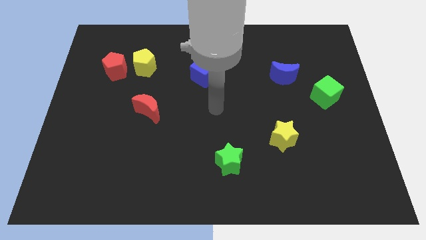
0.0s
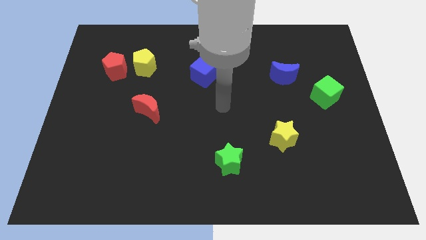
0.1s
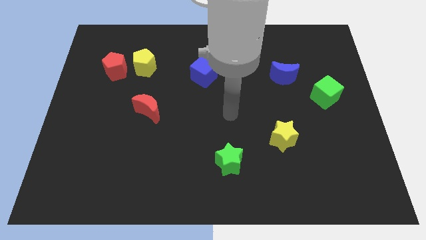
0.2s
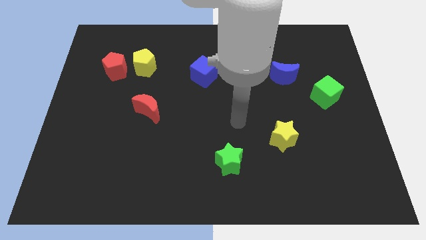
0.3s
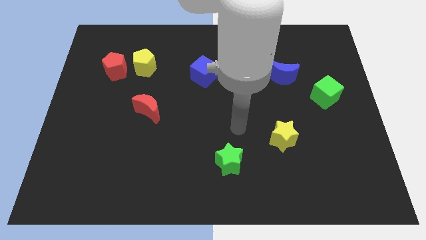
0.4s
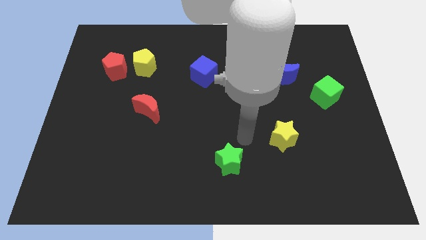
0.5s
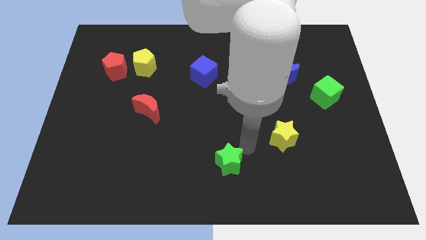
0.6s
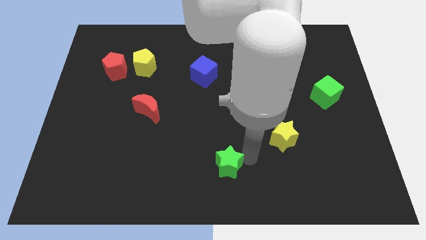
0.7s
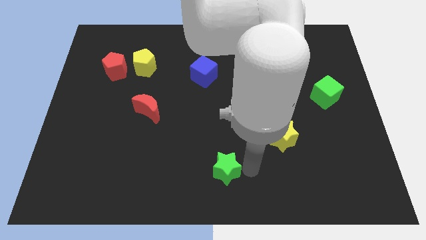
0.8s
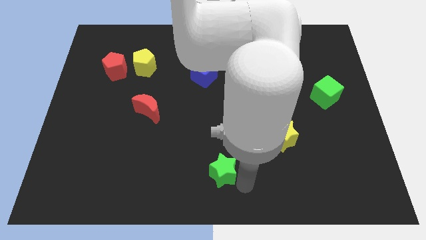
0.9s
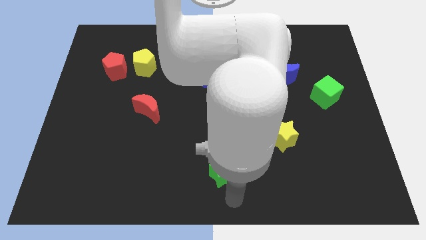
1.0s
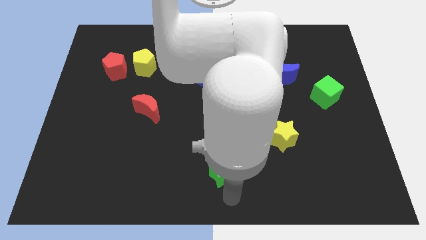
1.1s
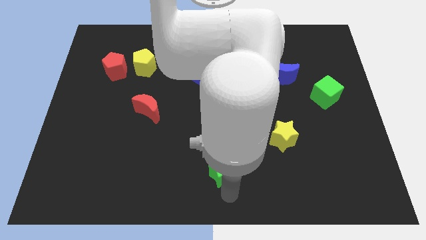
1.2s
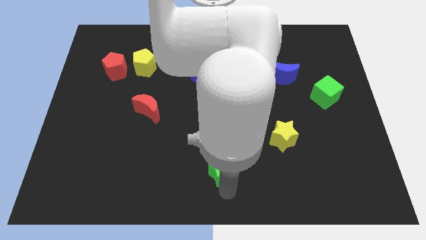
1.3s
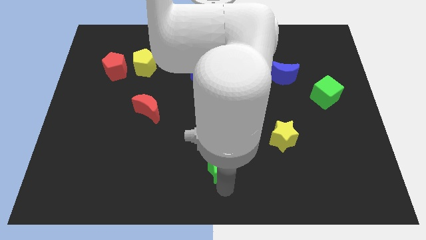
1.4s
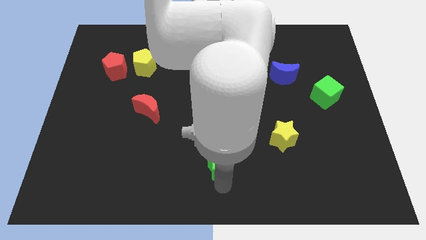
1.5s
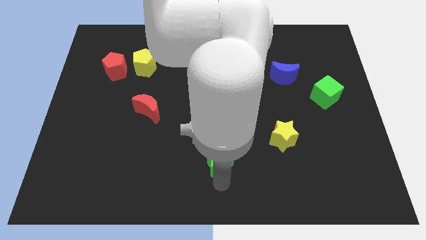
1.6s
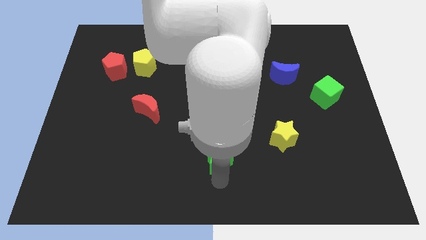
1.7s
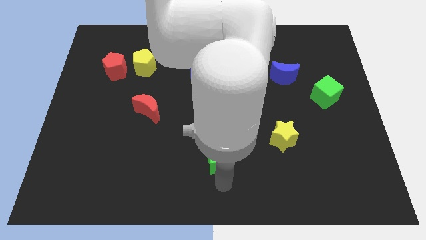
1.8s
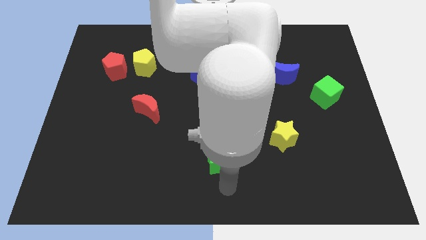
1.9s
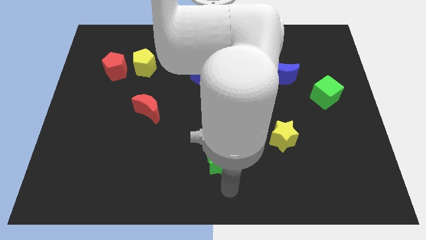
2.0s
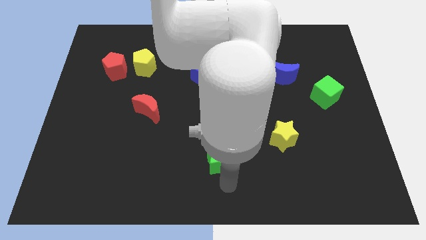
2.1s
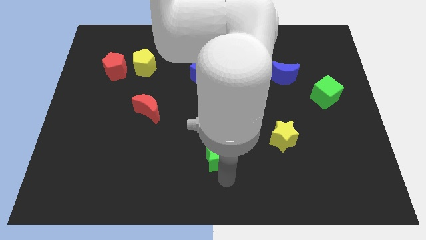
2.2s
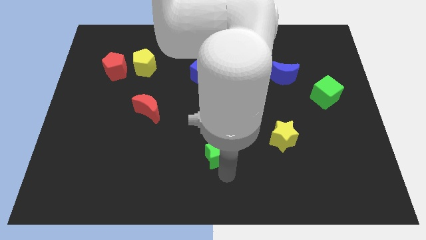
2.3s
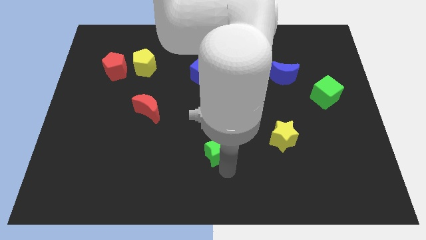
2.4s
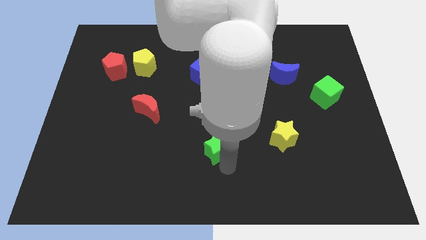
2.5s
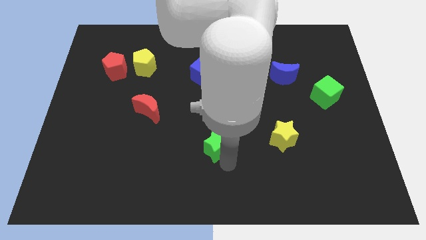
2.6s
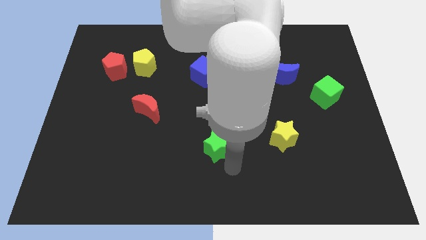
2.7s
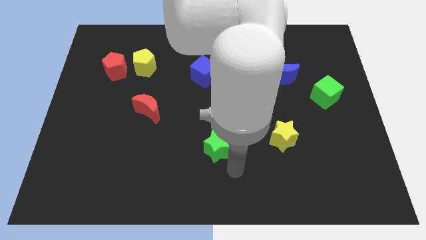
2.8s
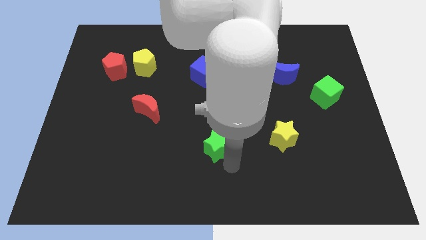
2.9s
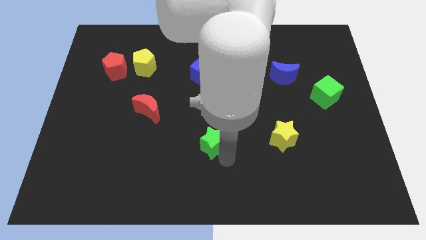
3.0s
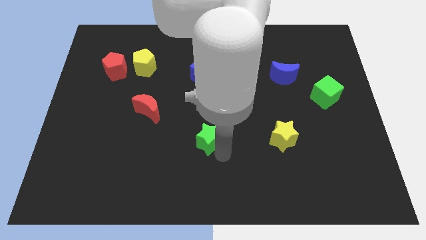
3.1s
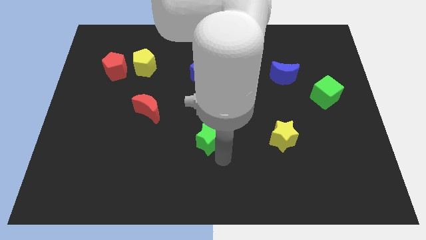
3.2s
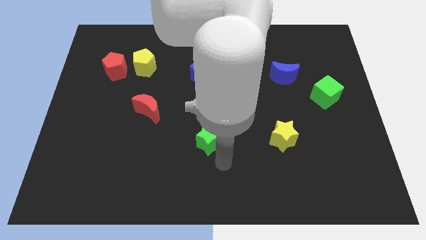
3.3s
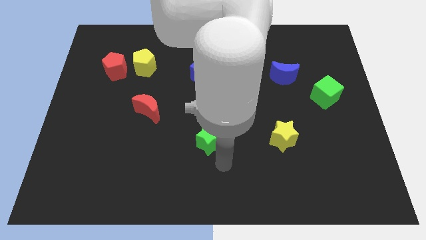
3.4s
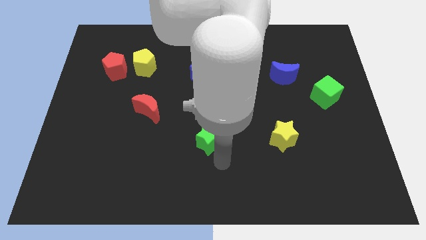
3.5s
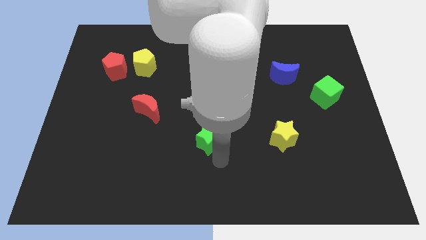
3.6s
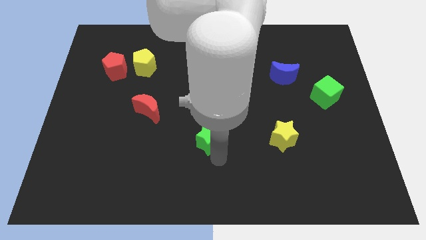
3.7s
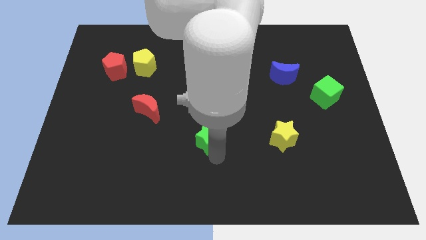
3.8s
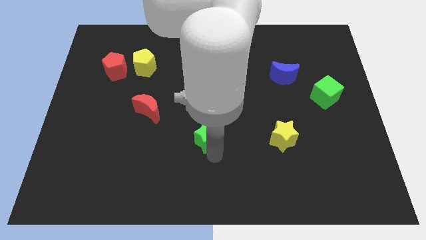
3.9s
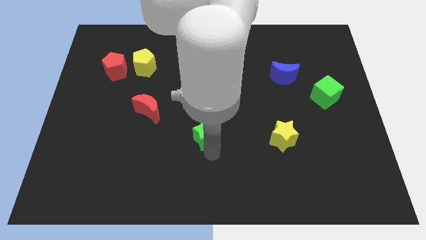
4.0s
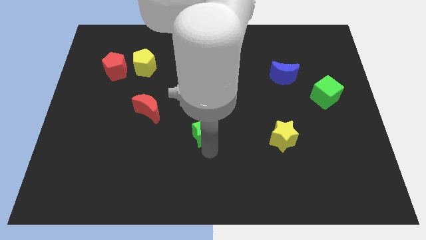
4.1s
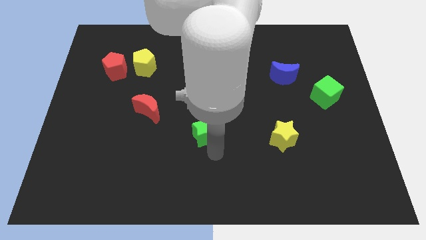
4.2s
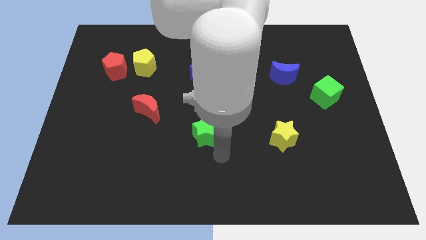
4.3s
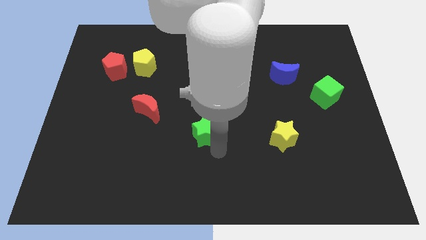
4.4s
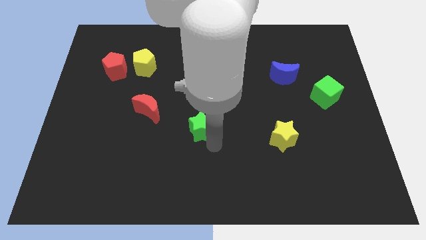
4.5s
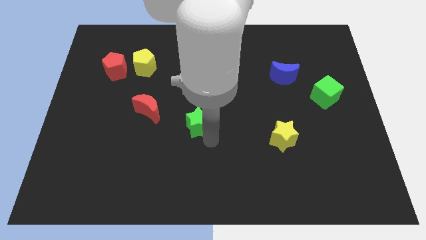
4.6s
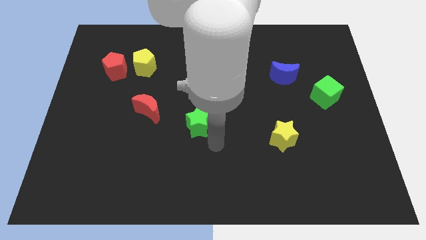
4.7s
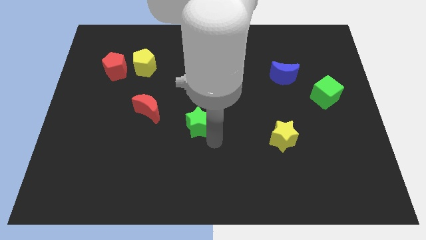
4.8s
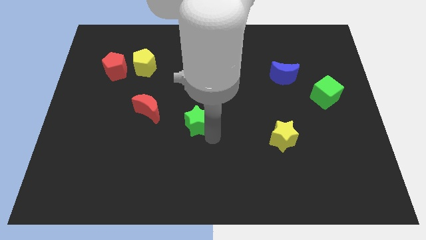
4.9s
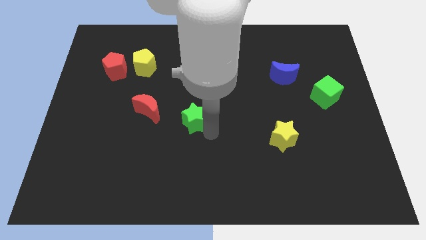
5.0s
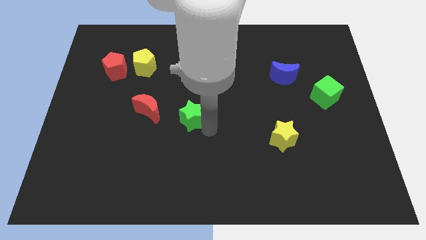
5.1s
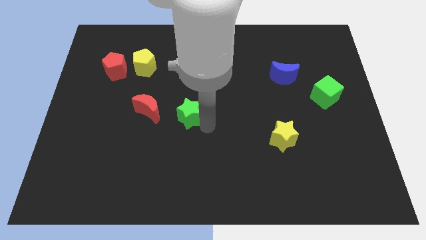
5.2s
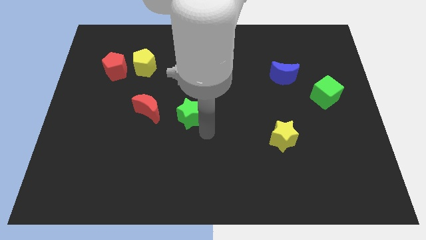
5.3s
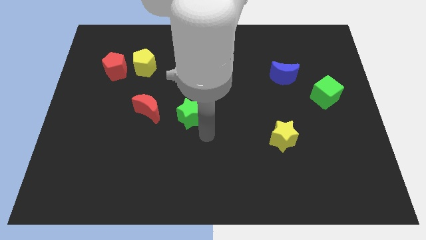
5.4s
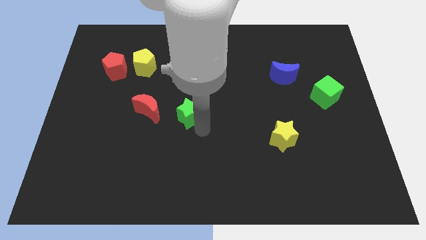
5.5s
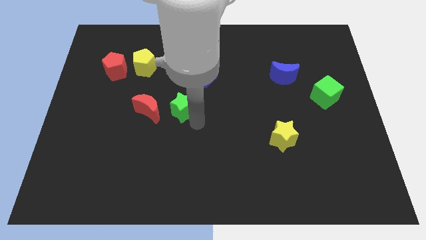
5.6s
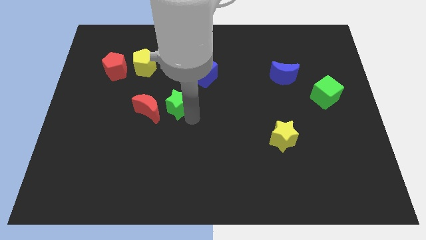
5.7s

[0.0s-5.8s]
slide the green star diagonally up and to the right of the red moon

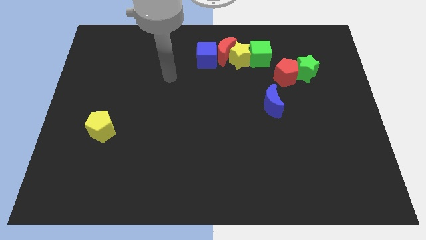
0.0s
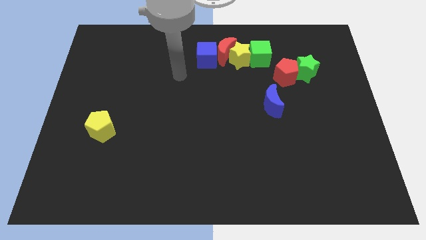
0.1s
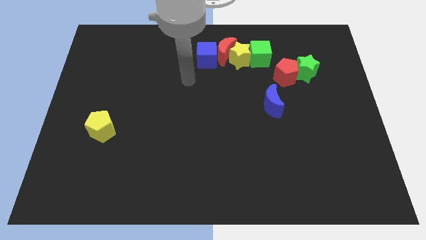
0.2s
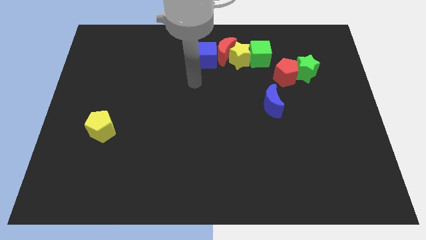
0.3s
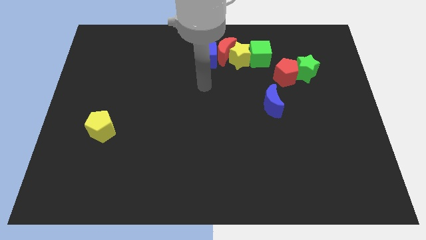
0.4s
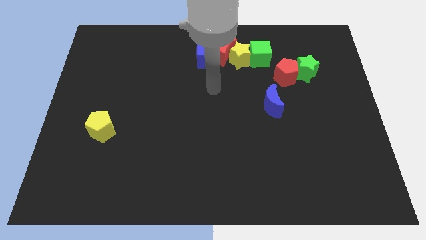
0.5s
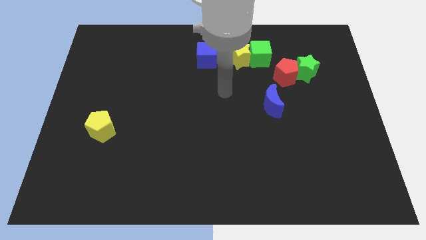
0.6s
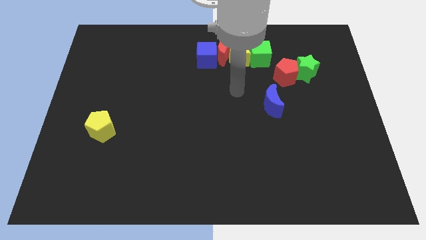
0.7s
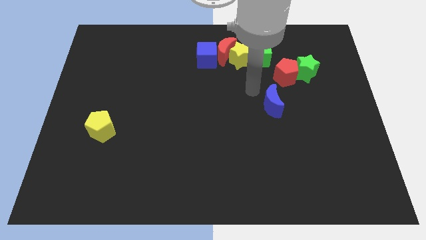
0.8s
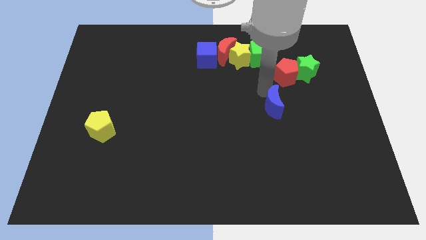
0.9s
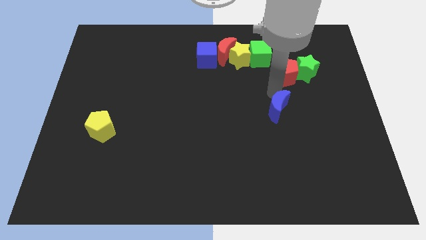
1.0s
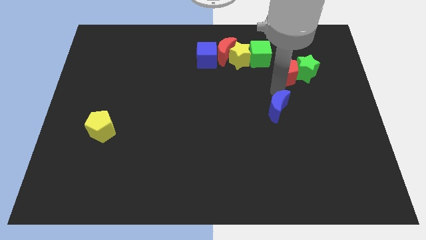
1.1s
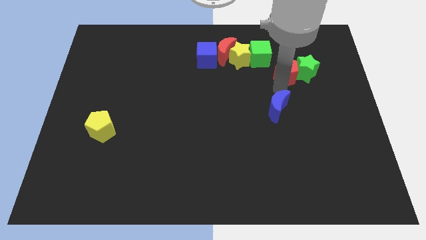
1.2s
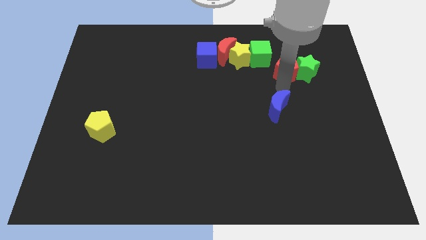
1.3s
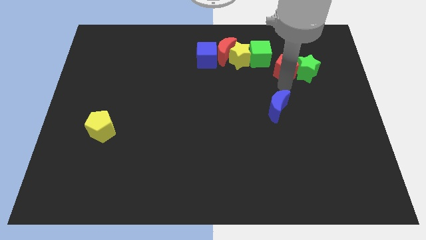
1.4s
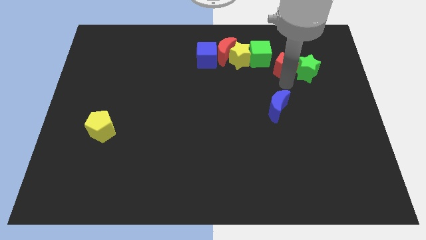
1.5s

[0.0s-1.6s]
put the red pentagon to the right of the green cube

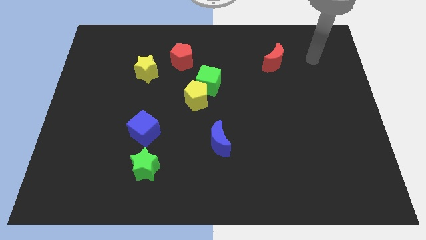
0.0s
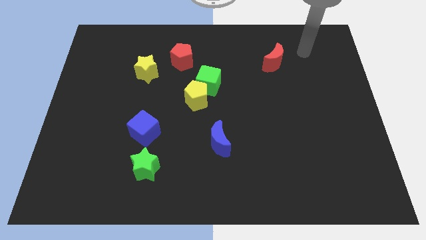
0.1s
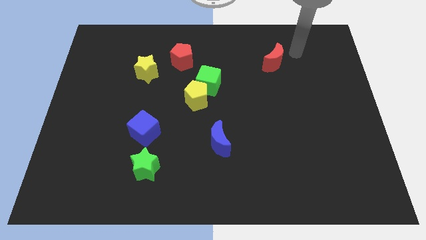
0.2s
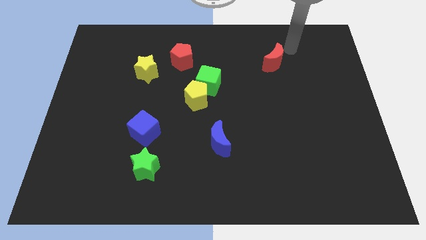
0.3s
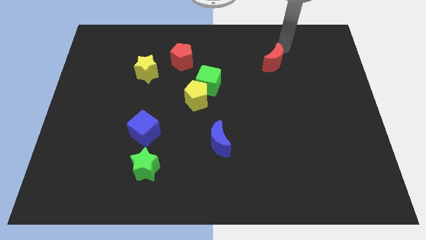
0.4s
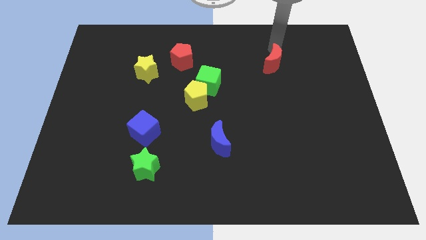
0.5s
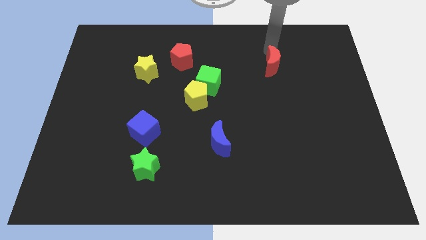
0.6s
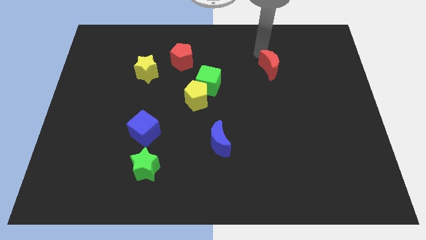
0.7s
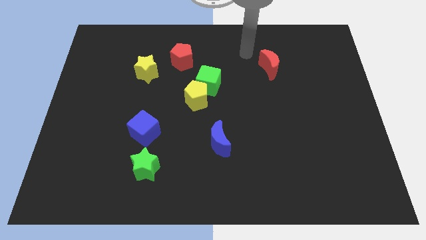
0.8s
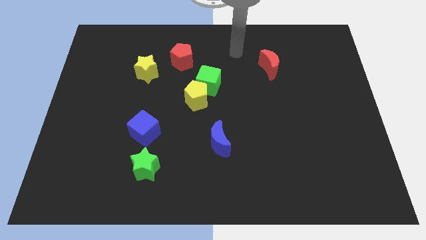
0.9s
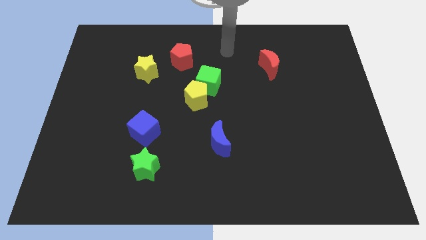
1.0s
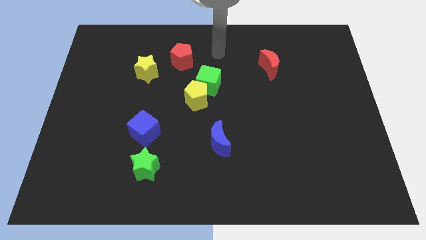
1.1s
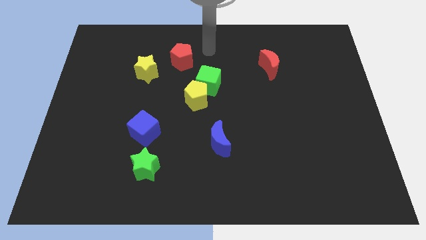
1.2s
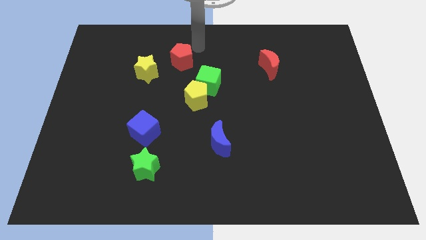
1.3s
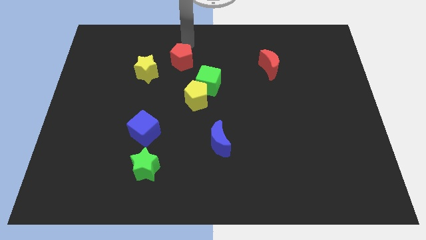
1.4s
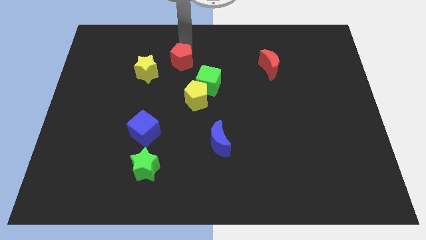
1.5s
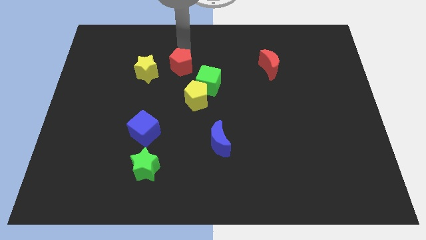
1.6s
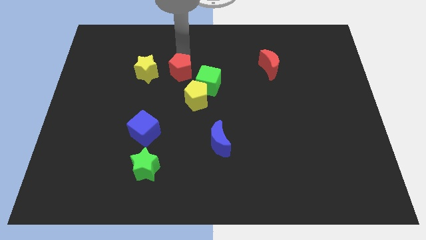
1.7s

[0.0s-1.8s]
slide the red pentagon diagonally up and to the left of the yellow pentagon
